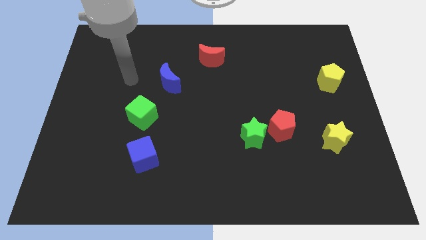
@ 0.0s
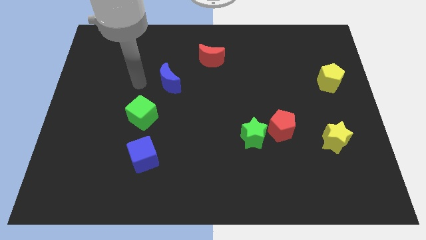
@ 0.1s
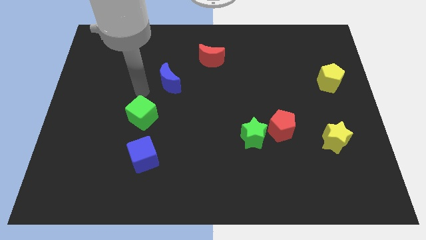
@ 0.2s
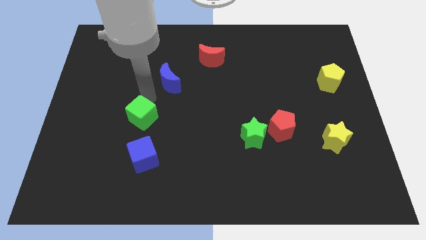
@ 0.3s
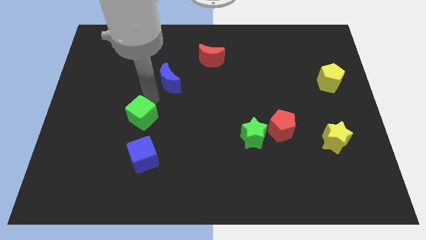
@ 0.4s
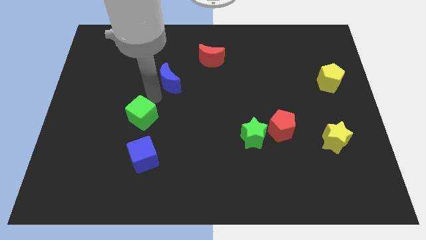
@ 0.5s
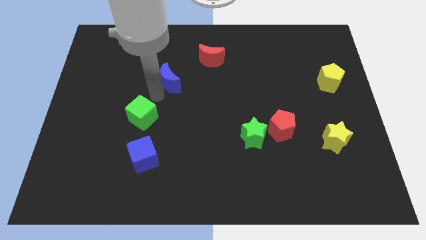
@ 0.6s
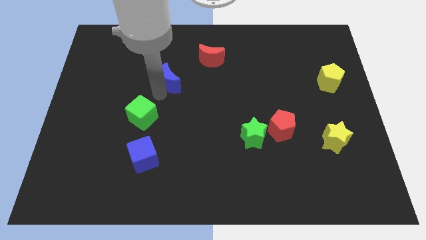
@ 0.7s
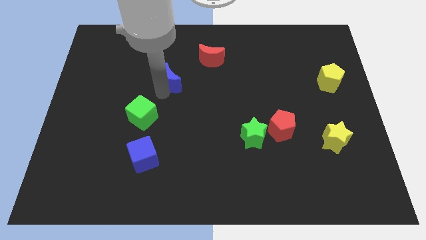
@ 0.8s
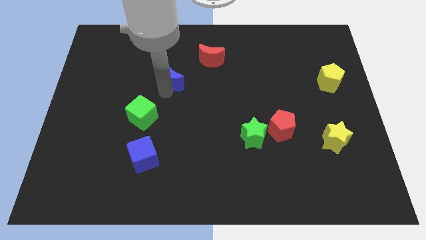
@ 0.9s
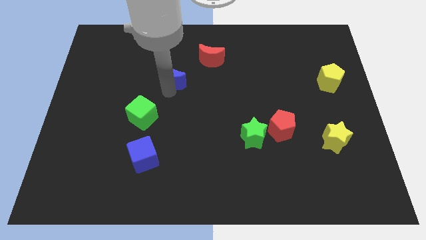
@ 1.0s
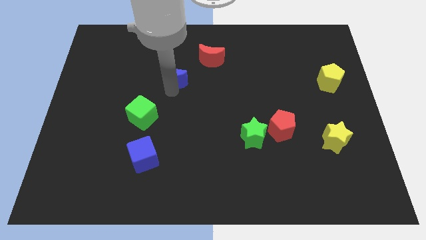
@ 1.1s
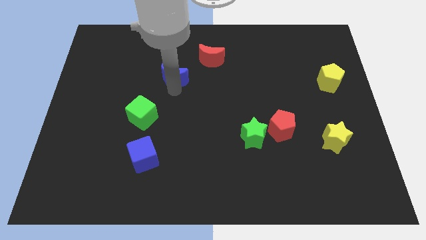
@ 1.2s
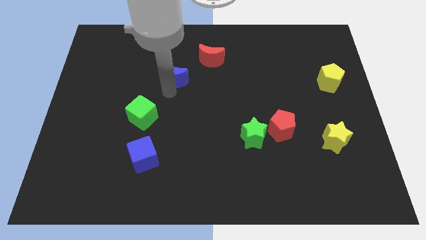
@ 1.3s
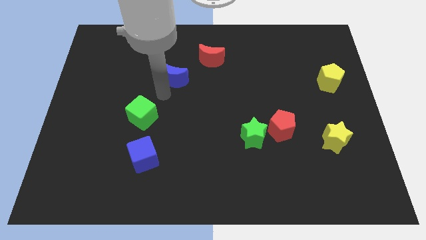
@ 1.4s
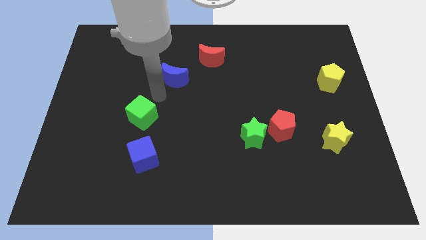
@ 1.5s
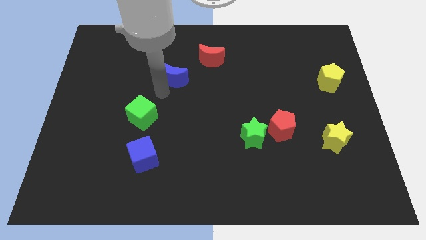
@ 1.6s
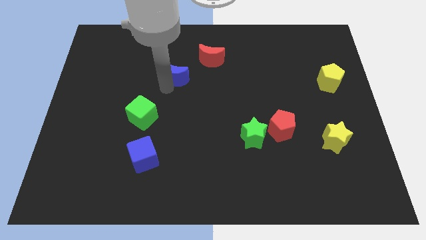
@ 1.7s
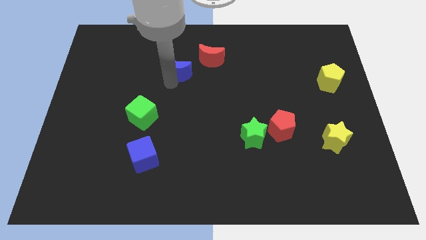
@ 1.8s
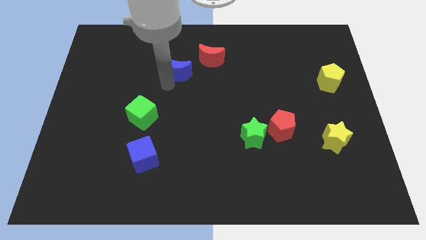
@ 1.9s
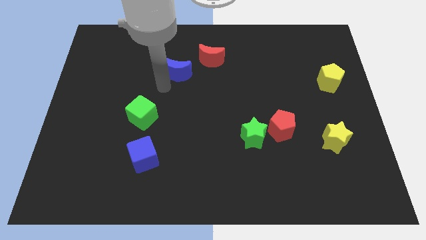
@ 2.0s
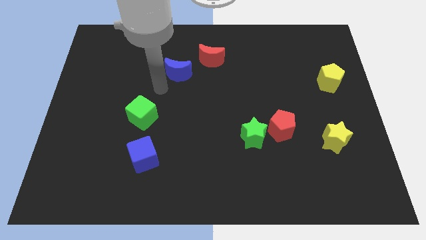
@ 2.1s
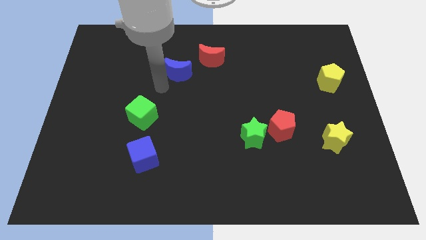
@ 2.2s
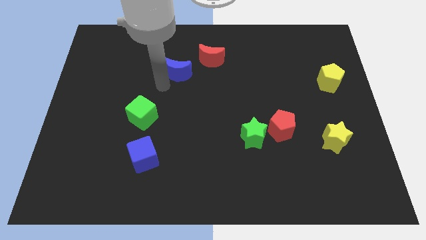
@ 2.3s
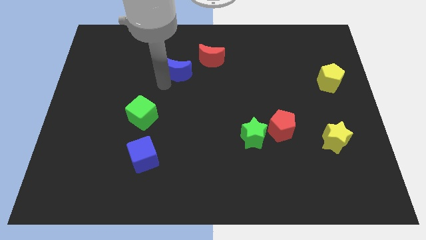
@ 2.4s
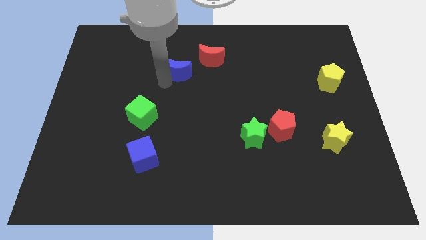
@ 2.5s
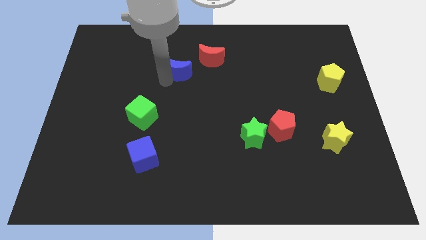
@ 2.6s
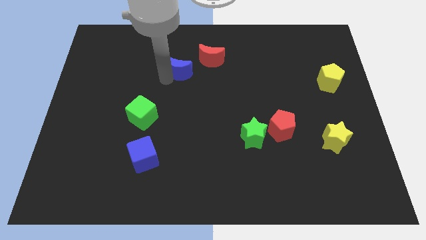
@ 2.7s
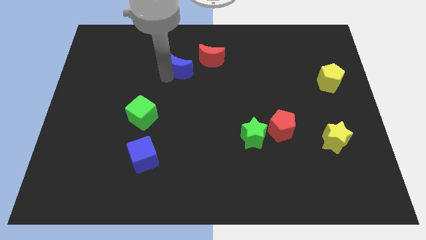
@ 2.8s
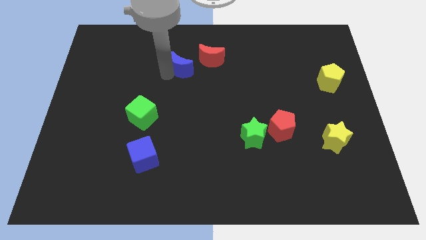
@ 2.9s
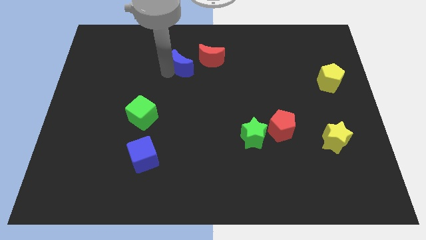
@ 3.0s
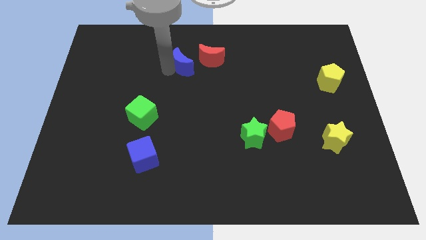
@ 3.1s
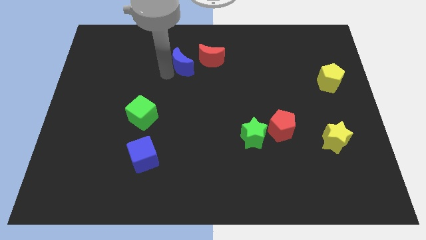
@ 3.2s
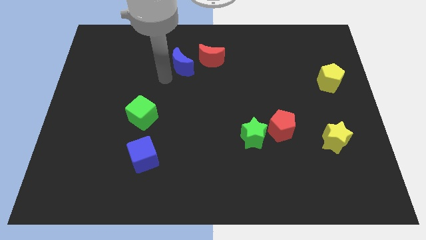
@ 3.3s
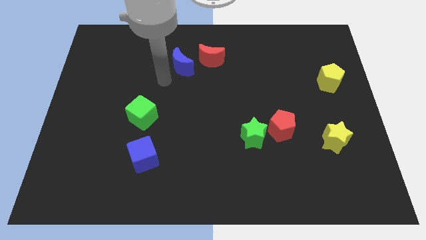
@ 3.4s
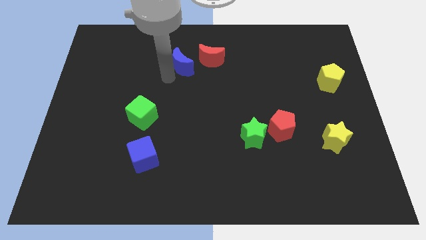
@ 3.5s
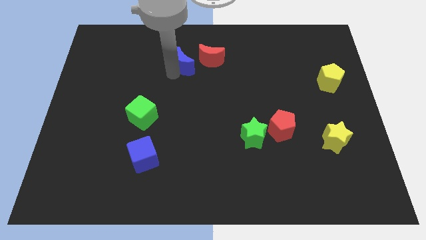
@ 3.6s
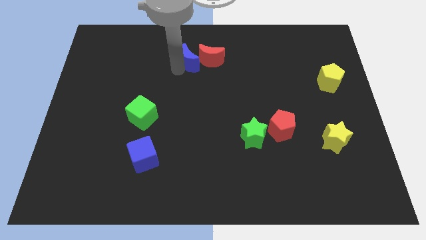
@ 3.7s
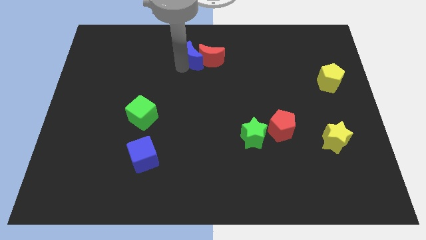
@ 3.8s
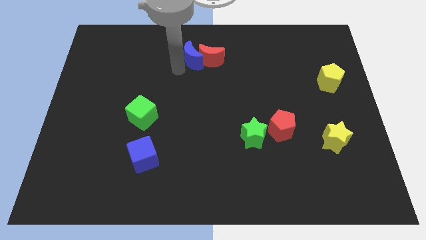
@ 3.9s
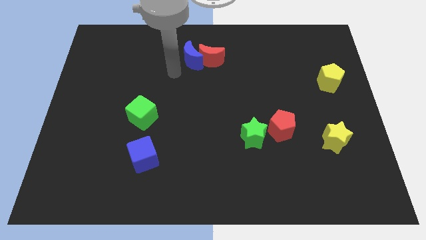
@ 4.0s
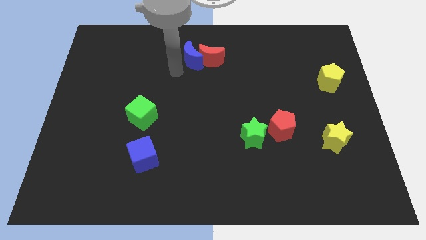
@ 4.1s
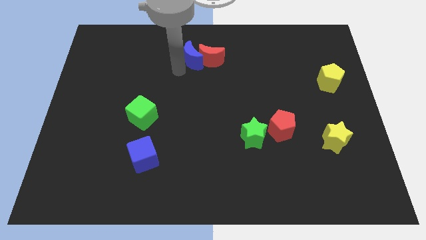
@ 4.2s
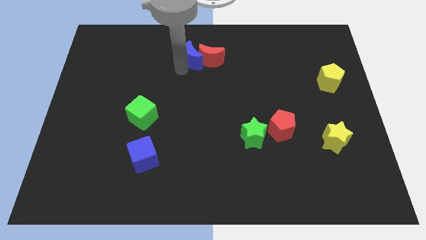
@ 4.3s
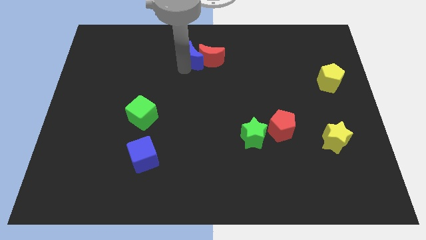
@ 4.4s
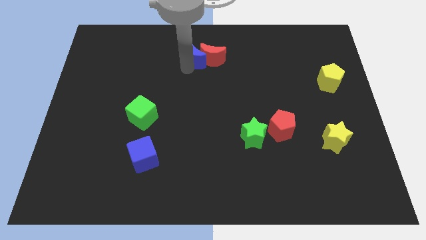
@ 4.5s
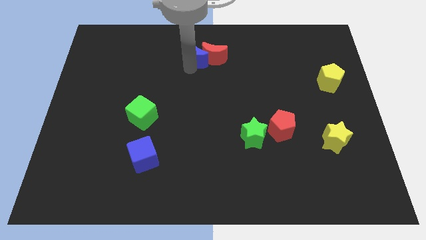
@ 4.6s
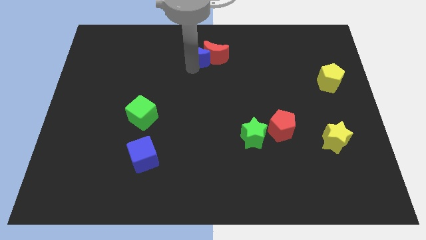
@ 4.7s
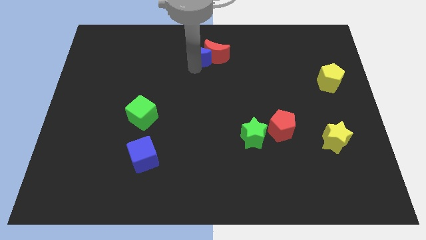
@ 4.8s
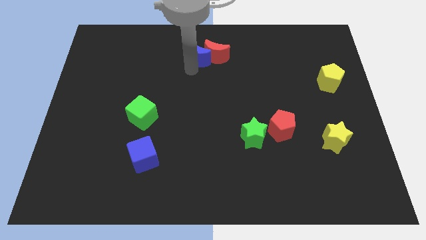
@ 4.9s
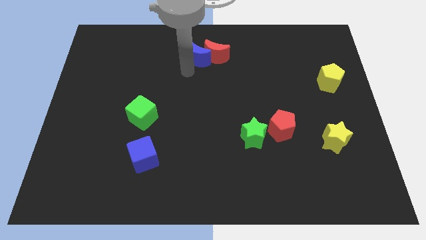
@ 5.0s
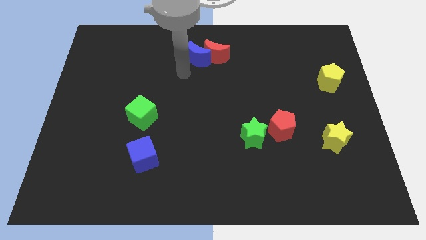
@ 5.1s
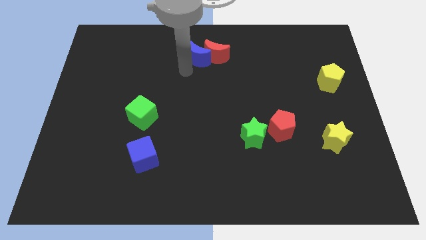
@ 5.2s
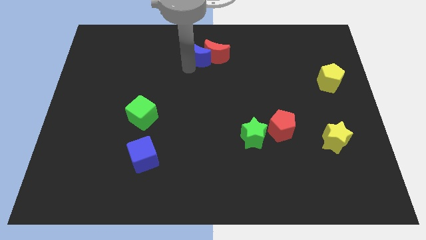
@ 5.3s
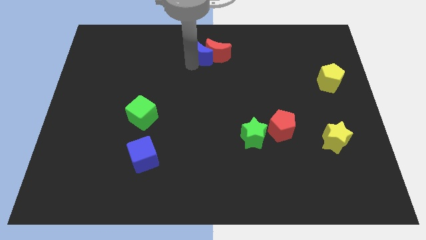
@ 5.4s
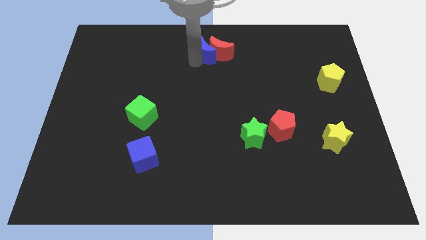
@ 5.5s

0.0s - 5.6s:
slide the blue moon to the top

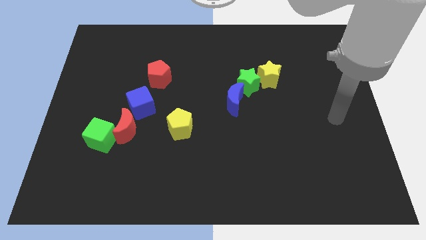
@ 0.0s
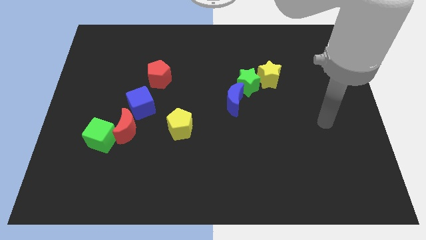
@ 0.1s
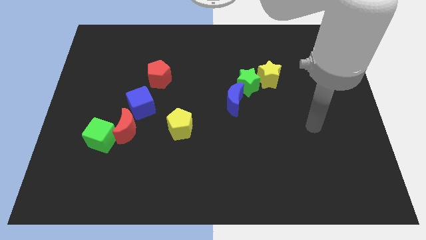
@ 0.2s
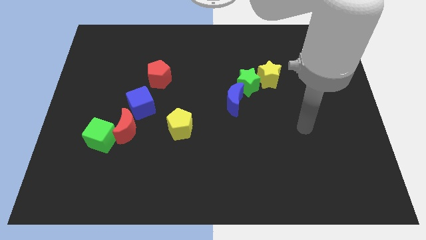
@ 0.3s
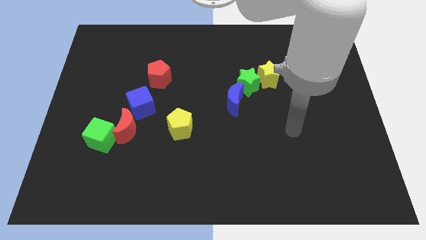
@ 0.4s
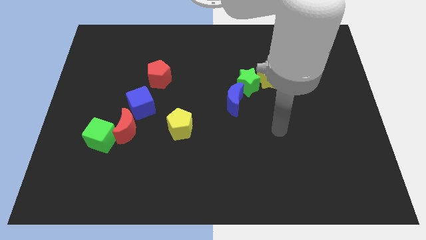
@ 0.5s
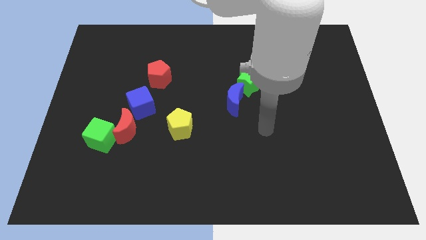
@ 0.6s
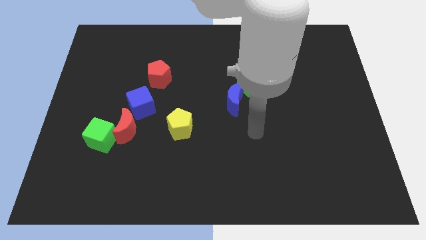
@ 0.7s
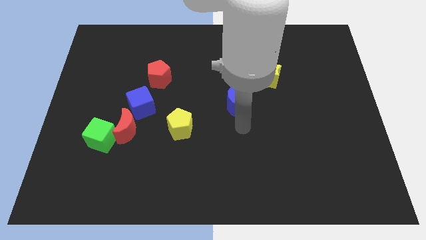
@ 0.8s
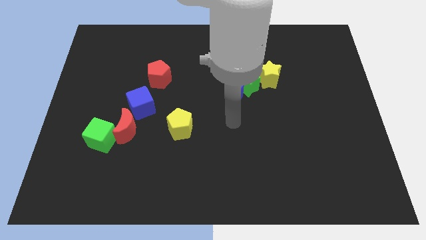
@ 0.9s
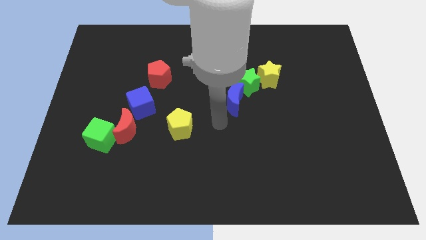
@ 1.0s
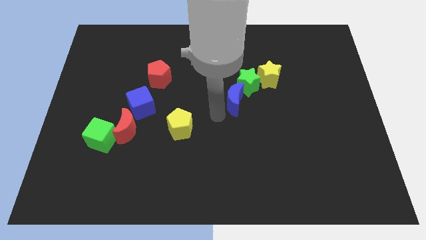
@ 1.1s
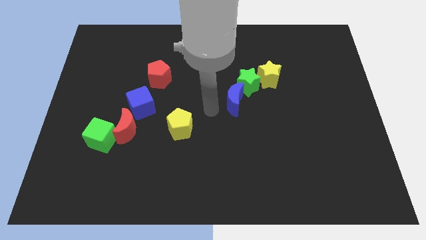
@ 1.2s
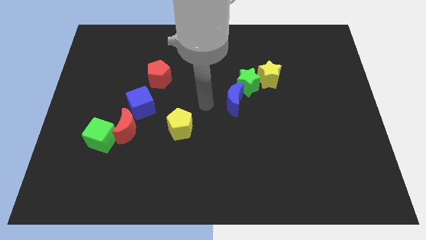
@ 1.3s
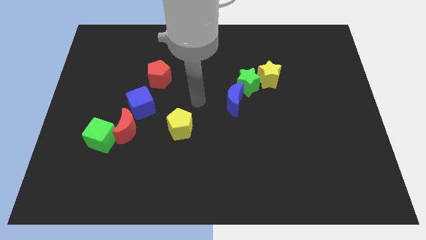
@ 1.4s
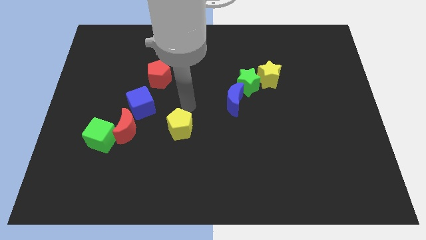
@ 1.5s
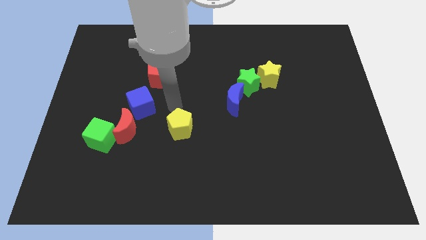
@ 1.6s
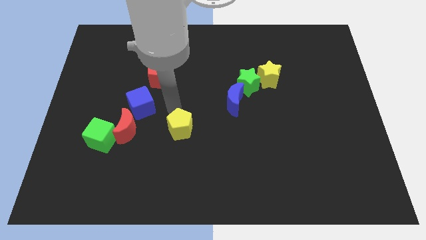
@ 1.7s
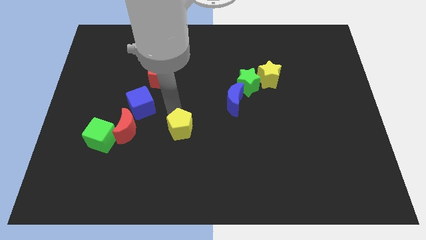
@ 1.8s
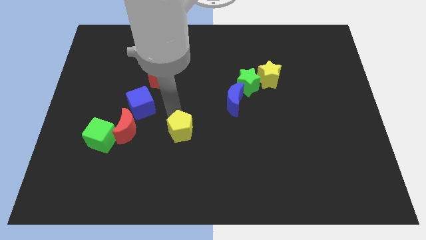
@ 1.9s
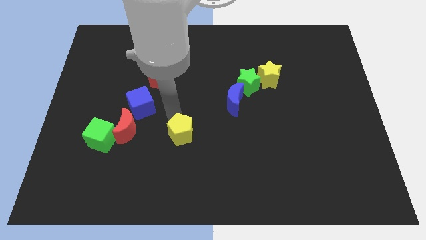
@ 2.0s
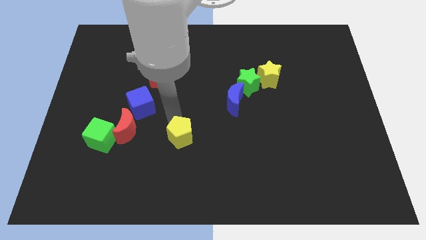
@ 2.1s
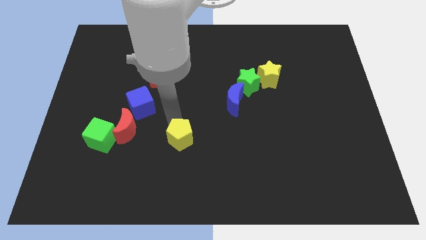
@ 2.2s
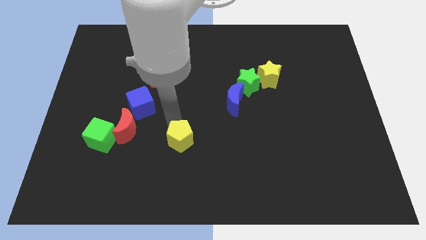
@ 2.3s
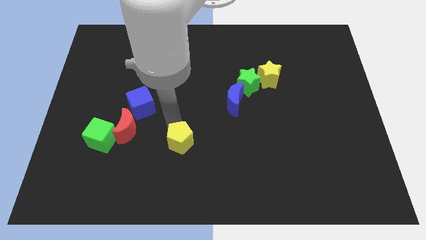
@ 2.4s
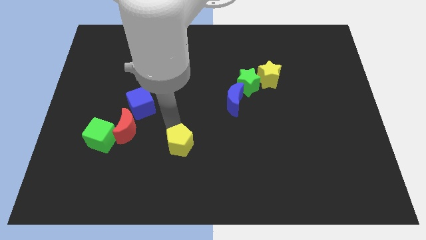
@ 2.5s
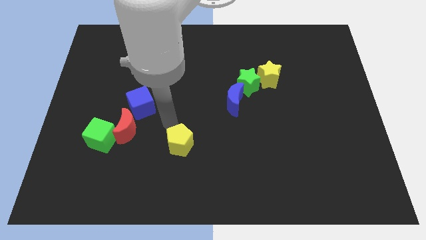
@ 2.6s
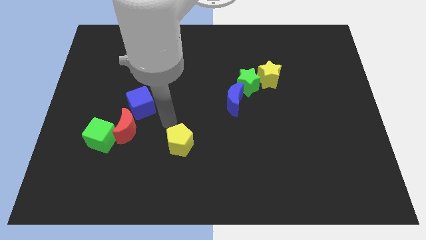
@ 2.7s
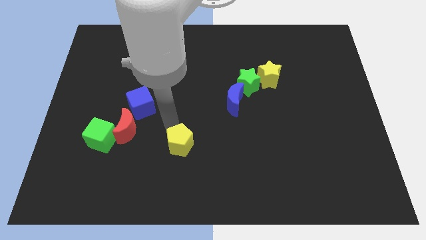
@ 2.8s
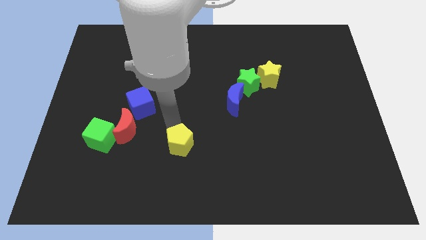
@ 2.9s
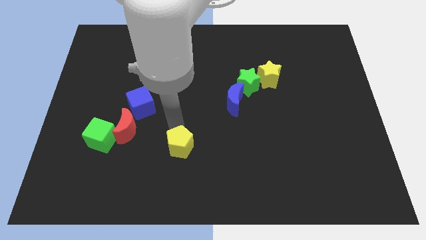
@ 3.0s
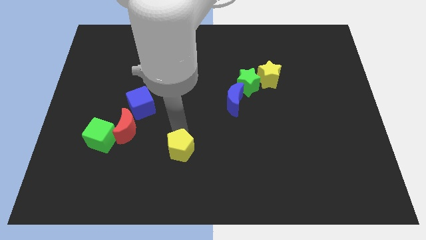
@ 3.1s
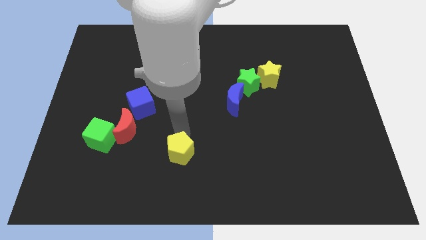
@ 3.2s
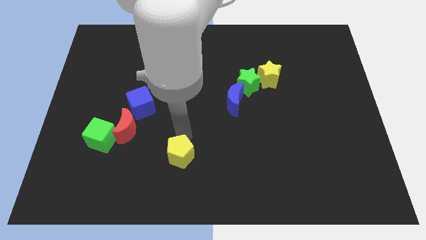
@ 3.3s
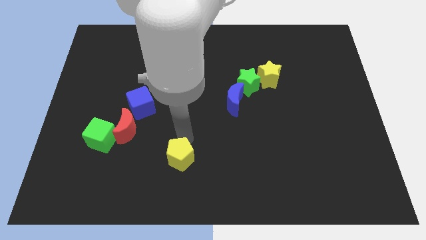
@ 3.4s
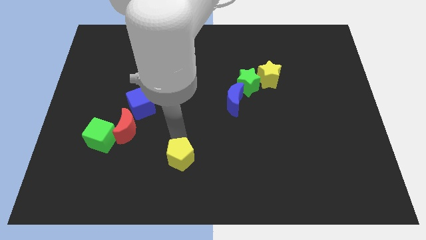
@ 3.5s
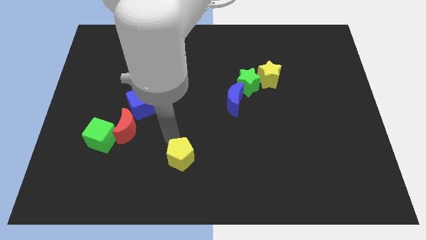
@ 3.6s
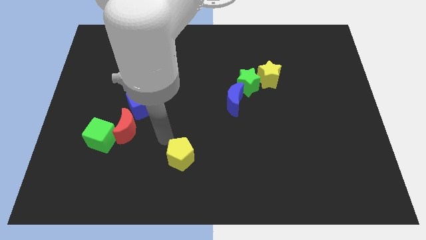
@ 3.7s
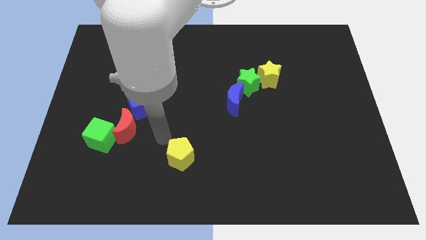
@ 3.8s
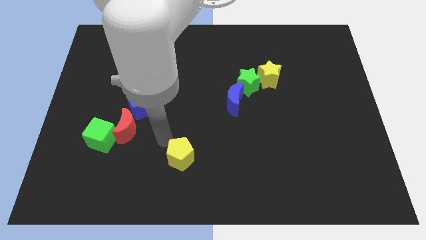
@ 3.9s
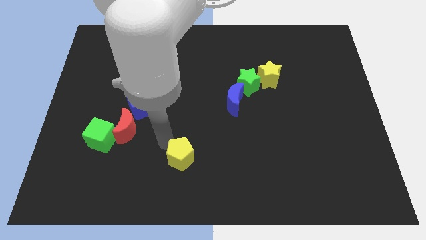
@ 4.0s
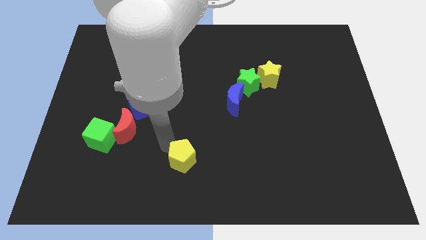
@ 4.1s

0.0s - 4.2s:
move the yellow pentagon to the bottom side
